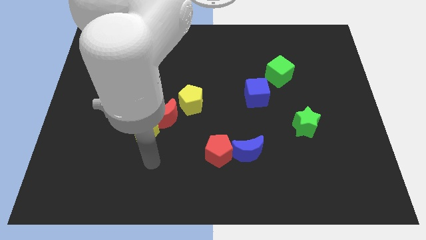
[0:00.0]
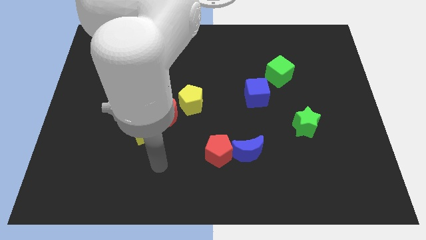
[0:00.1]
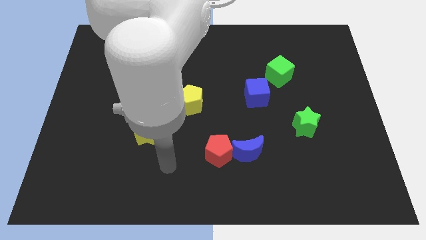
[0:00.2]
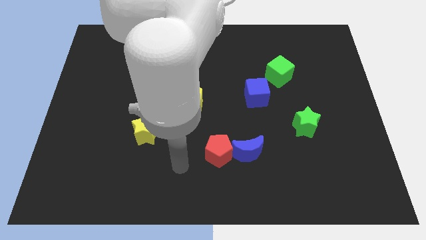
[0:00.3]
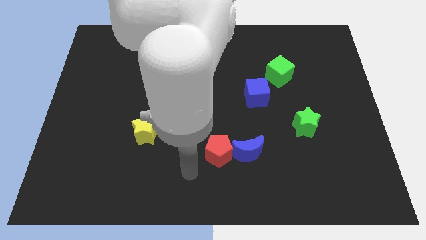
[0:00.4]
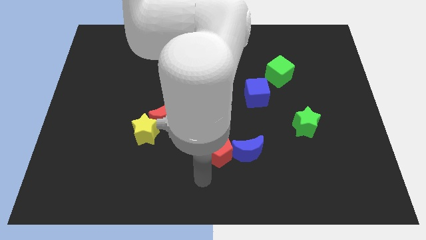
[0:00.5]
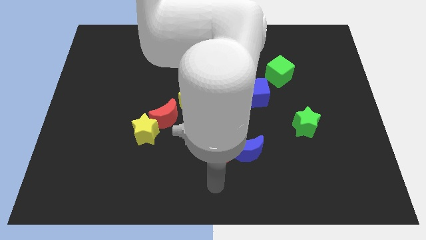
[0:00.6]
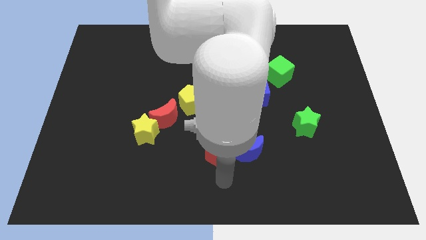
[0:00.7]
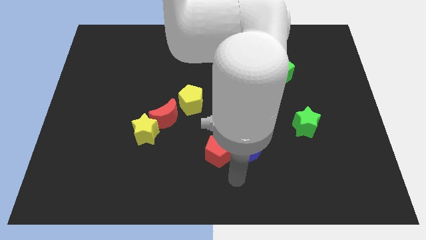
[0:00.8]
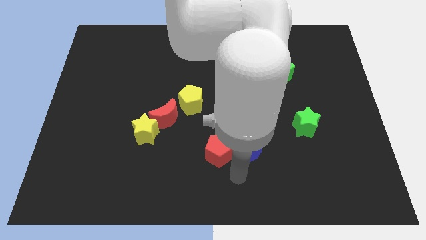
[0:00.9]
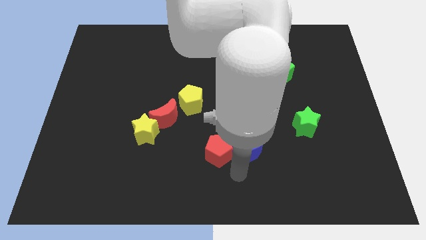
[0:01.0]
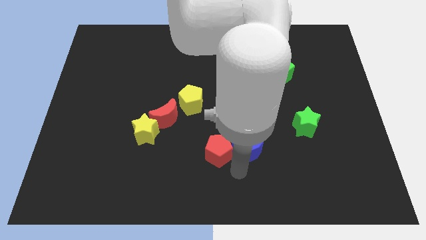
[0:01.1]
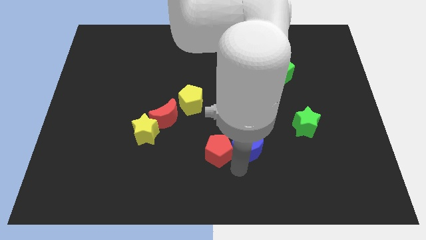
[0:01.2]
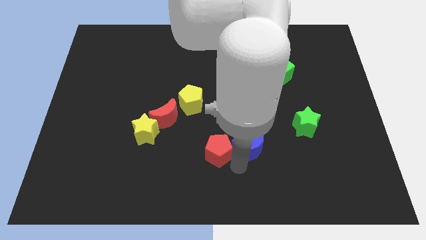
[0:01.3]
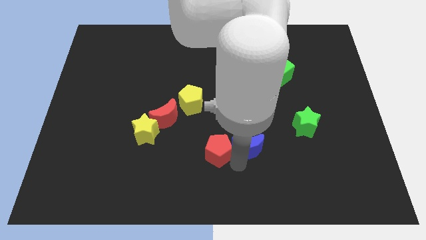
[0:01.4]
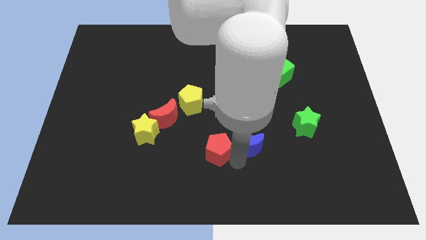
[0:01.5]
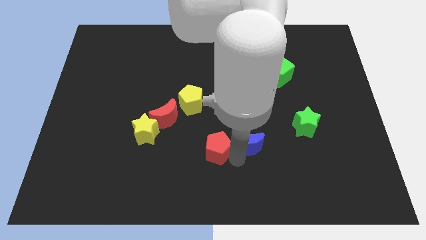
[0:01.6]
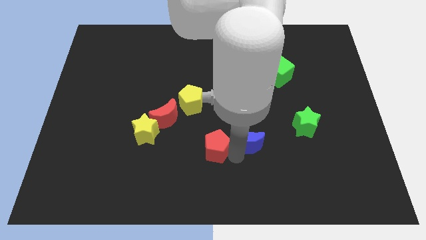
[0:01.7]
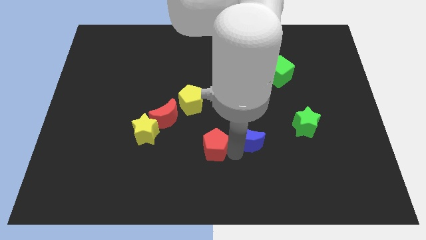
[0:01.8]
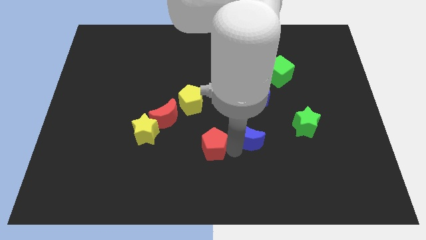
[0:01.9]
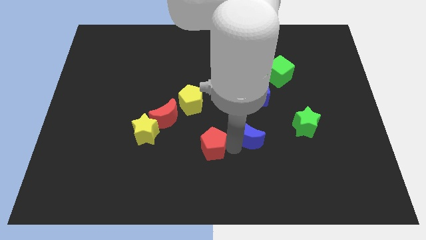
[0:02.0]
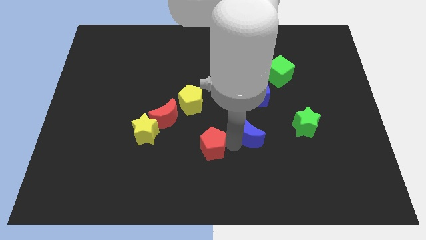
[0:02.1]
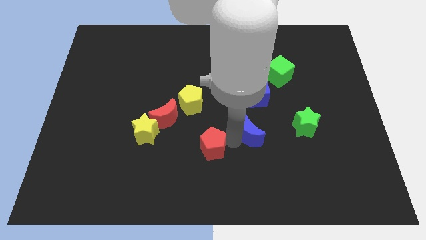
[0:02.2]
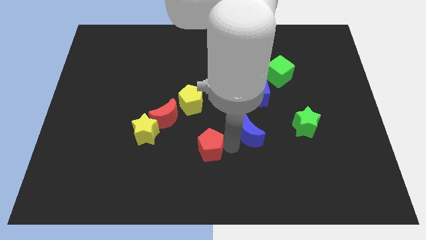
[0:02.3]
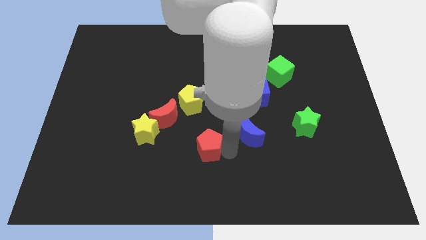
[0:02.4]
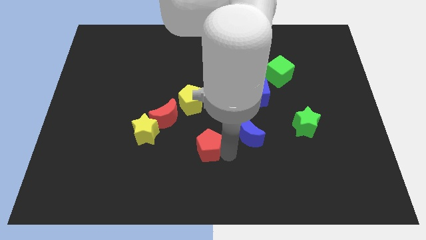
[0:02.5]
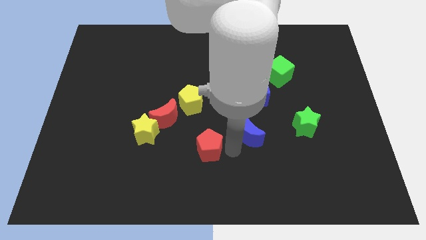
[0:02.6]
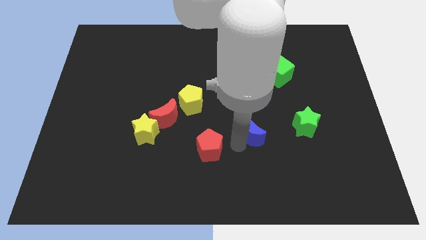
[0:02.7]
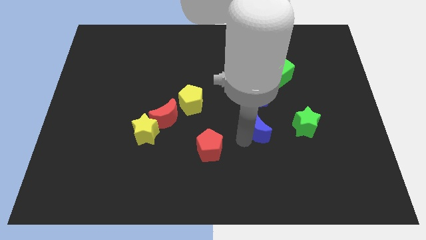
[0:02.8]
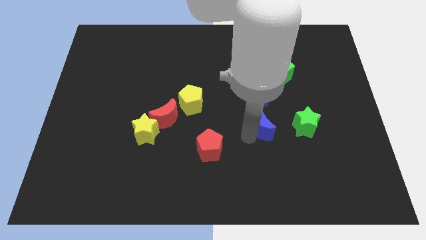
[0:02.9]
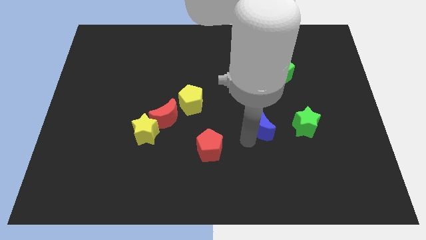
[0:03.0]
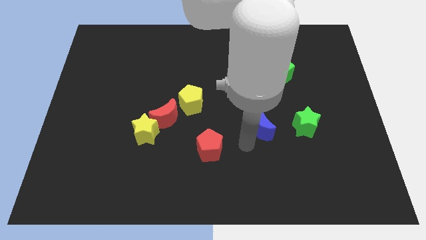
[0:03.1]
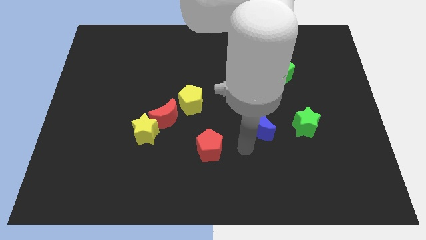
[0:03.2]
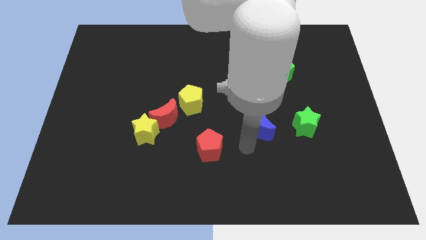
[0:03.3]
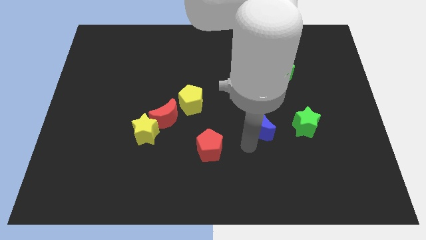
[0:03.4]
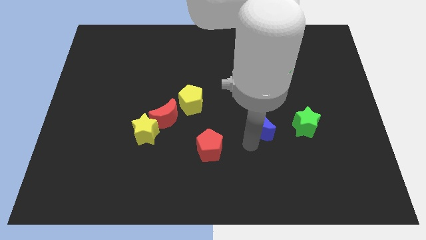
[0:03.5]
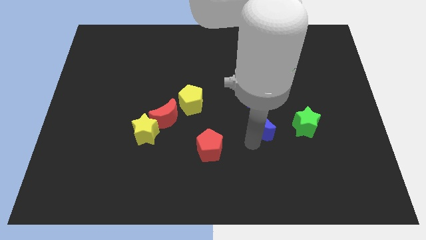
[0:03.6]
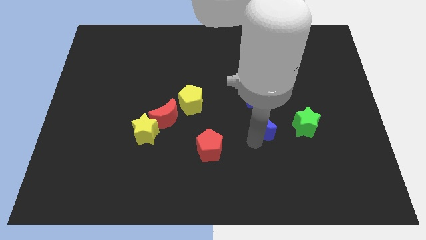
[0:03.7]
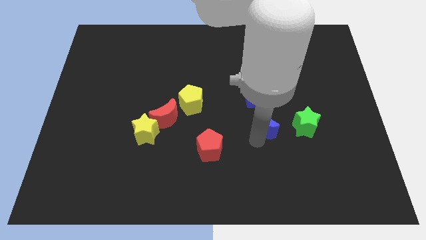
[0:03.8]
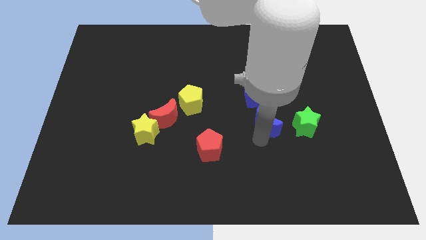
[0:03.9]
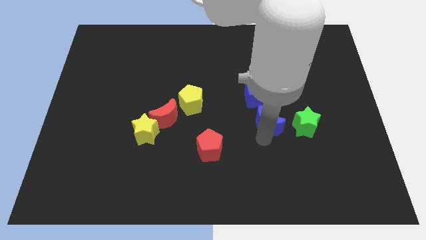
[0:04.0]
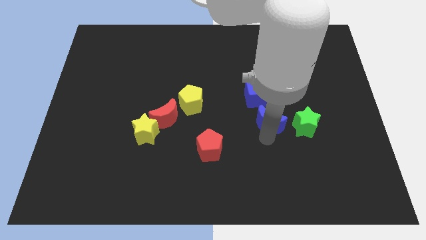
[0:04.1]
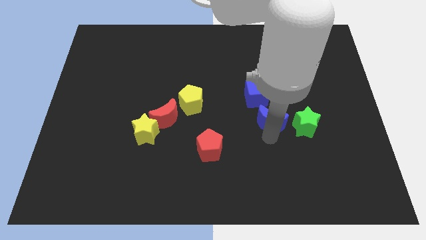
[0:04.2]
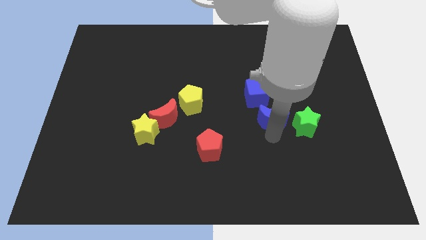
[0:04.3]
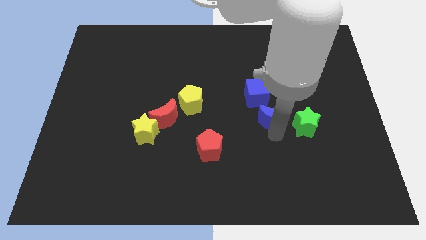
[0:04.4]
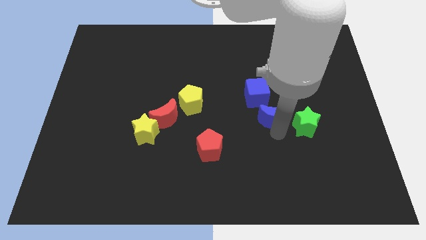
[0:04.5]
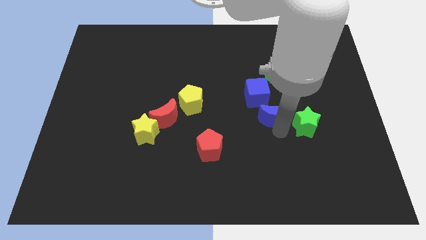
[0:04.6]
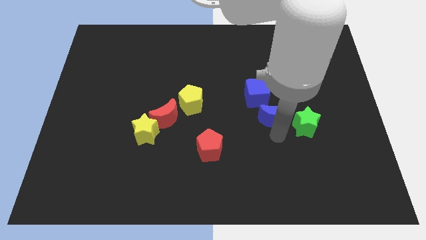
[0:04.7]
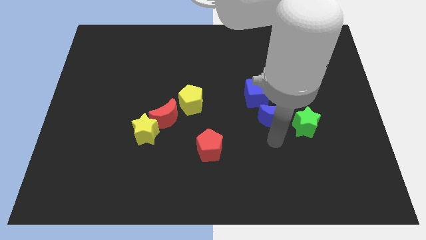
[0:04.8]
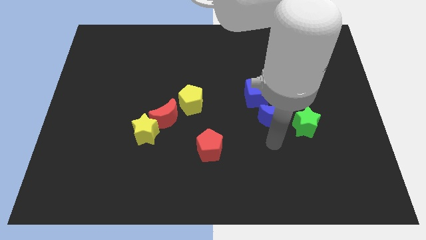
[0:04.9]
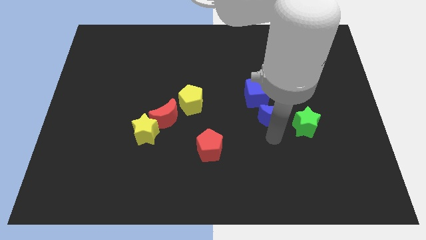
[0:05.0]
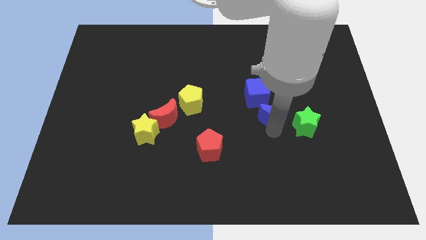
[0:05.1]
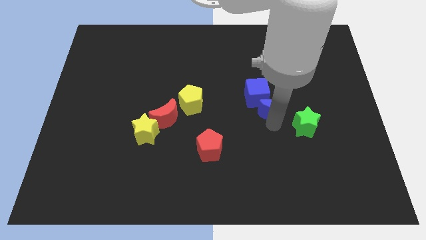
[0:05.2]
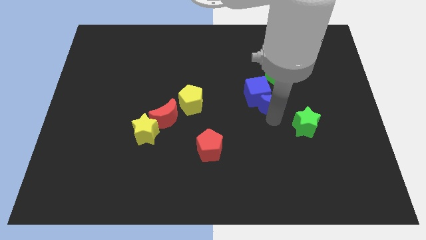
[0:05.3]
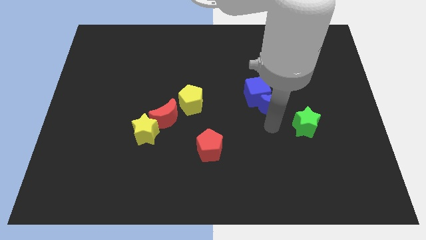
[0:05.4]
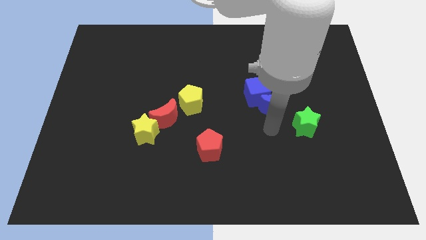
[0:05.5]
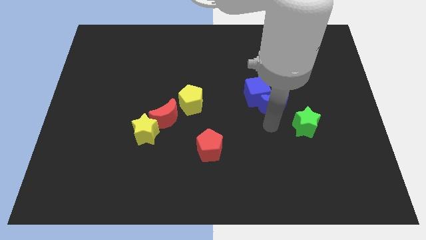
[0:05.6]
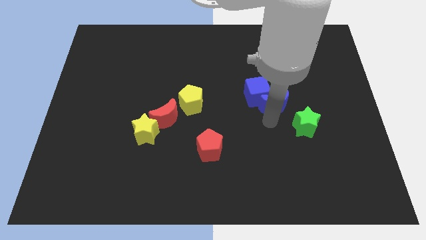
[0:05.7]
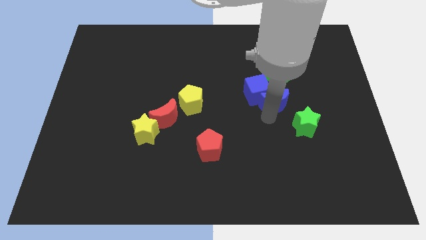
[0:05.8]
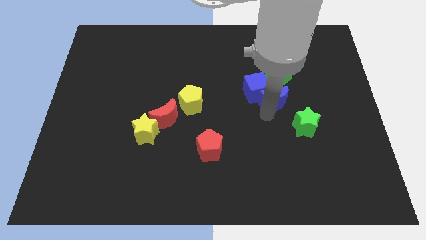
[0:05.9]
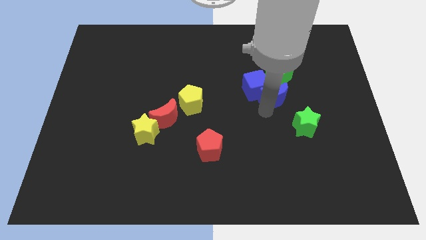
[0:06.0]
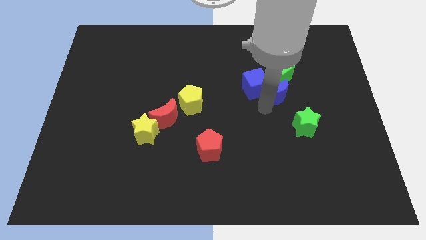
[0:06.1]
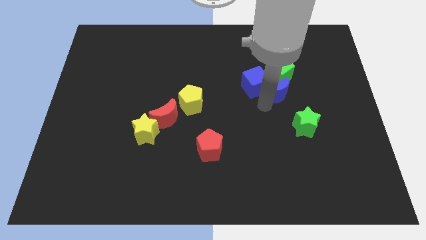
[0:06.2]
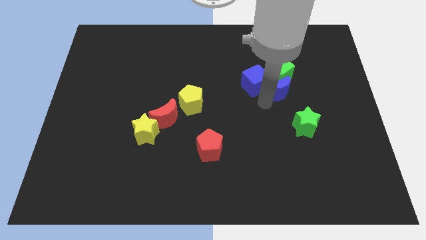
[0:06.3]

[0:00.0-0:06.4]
slide the blue moon towards the green cube
